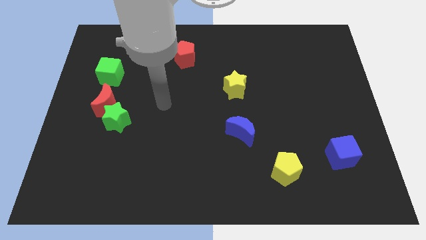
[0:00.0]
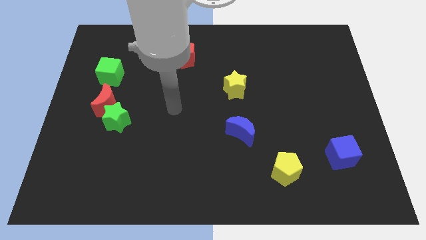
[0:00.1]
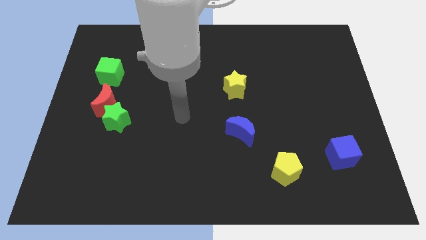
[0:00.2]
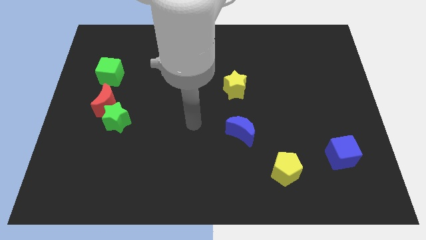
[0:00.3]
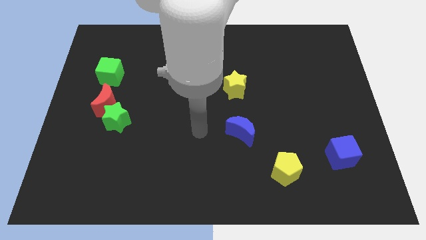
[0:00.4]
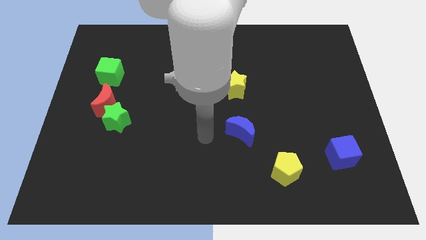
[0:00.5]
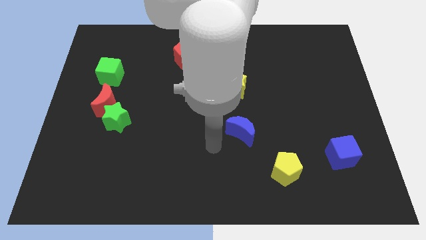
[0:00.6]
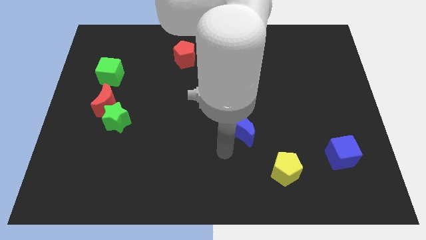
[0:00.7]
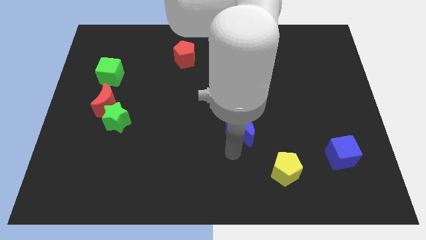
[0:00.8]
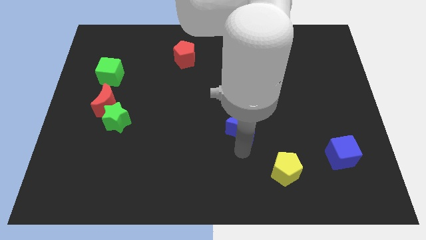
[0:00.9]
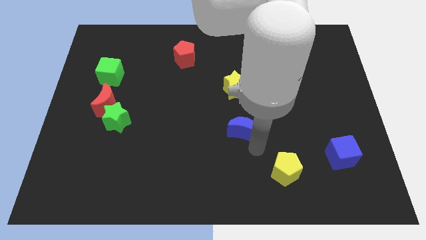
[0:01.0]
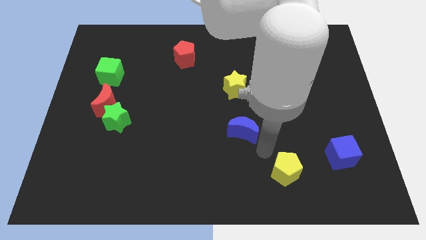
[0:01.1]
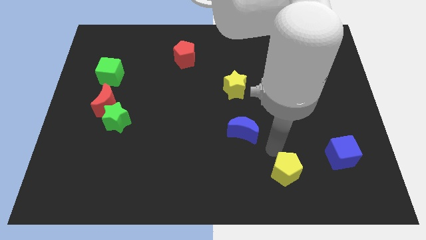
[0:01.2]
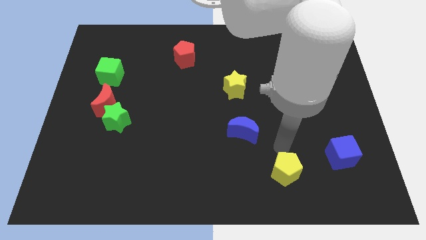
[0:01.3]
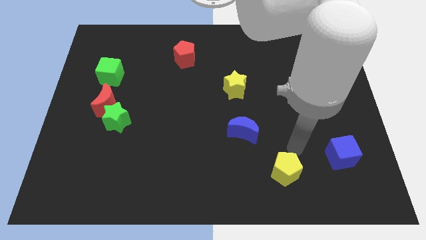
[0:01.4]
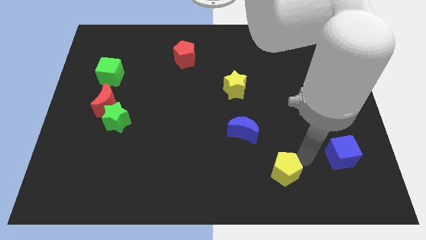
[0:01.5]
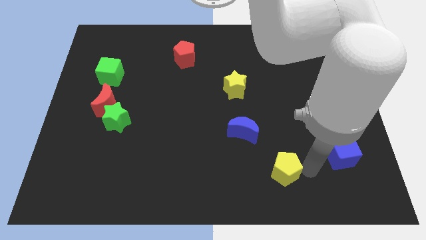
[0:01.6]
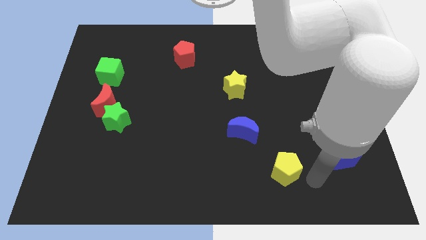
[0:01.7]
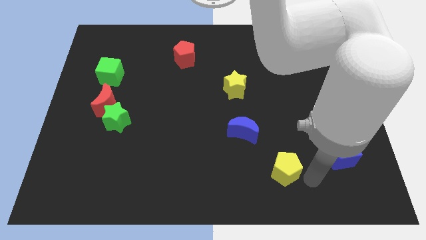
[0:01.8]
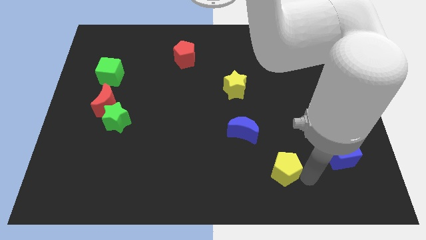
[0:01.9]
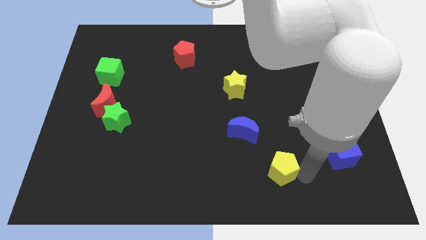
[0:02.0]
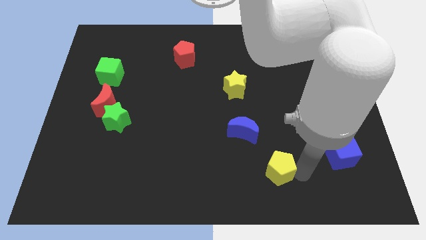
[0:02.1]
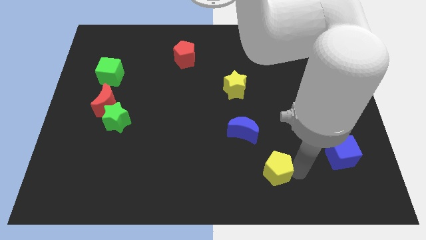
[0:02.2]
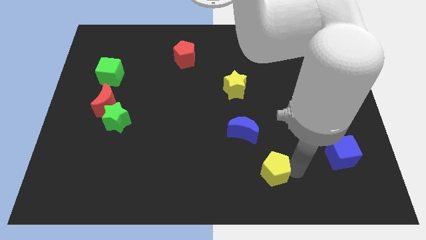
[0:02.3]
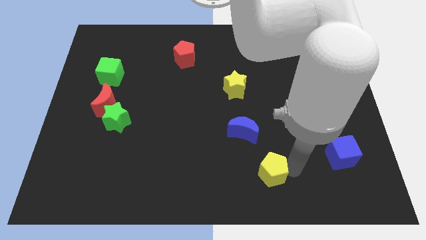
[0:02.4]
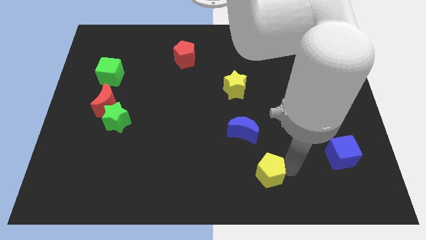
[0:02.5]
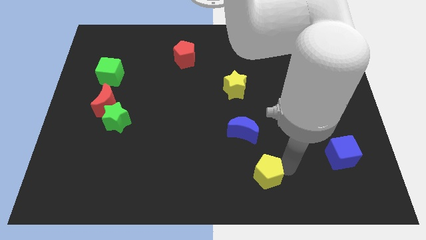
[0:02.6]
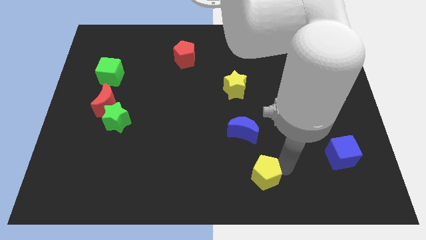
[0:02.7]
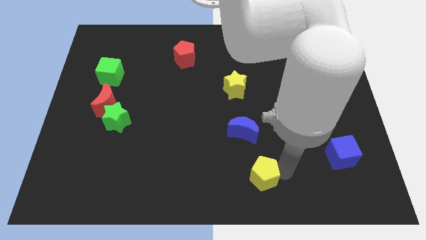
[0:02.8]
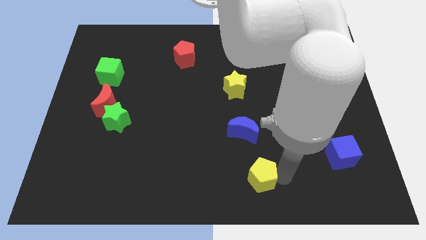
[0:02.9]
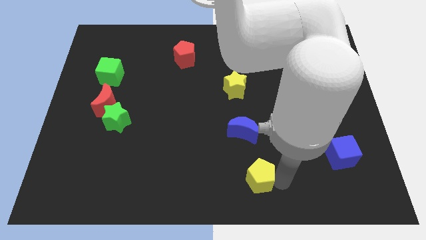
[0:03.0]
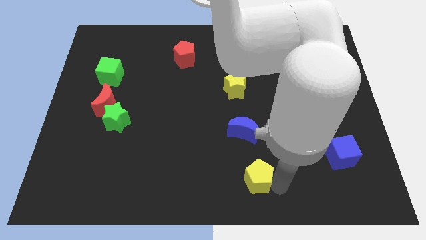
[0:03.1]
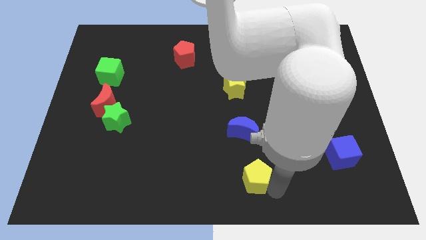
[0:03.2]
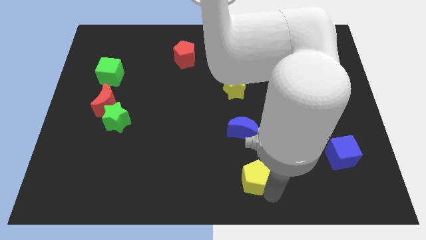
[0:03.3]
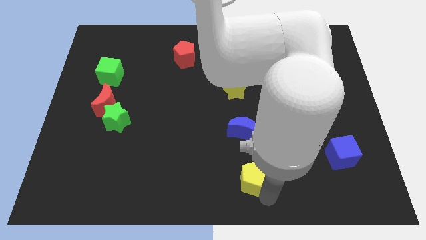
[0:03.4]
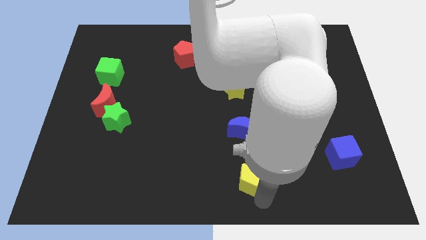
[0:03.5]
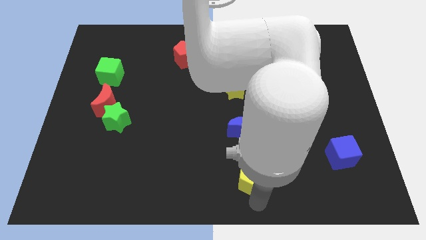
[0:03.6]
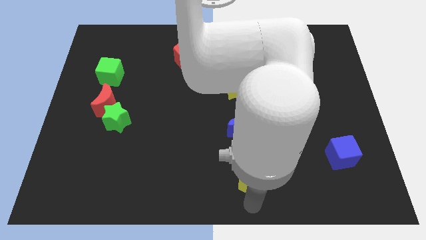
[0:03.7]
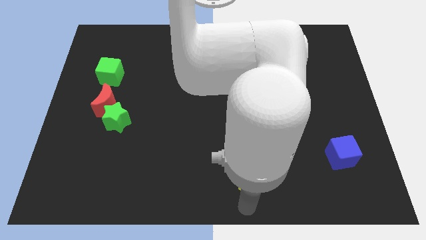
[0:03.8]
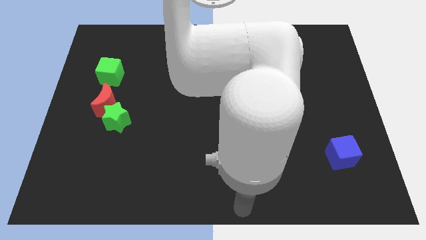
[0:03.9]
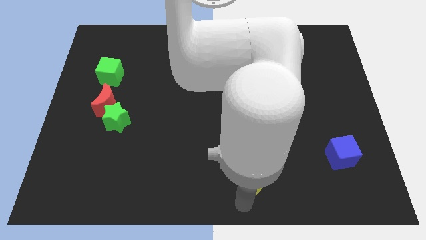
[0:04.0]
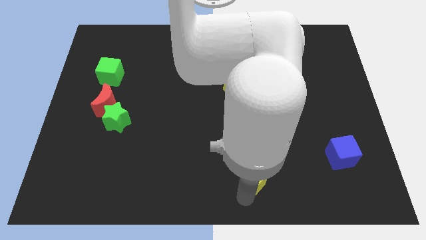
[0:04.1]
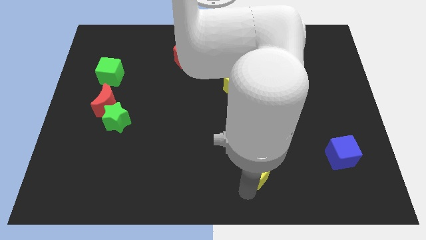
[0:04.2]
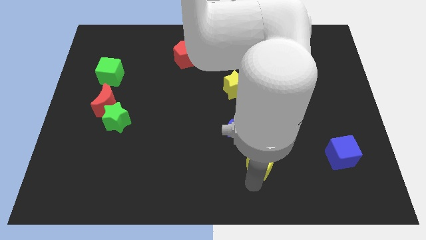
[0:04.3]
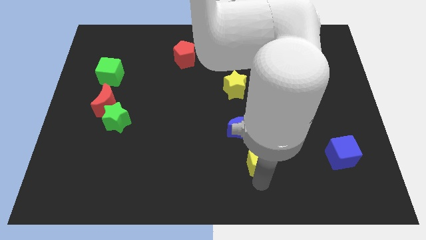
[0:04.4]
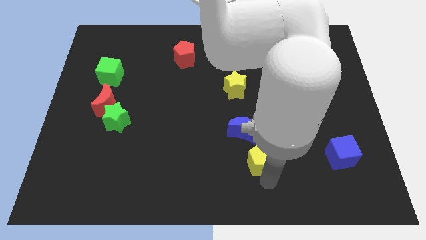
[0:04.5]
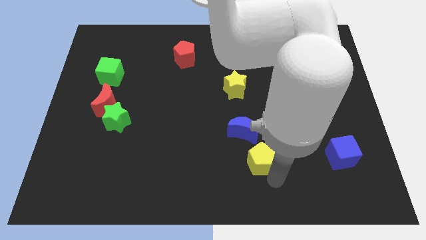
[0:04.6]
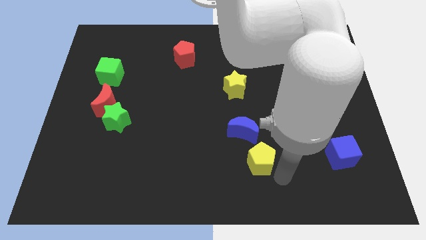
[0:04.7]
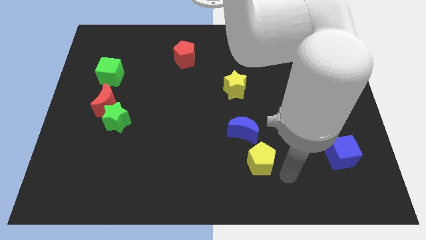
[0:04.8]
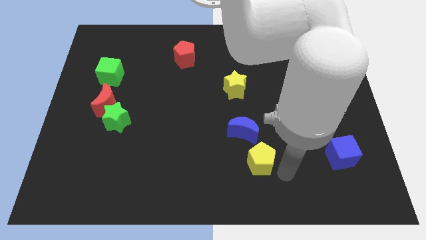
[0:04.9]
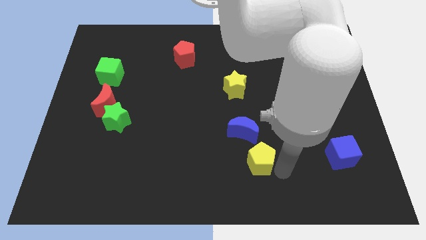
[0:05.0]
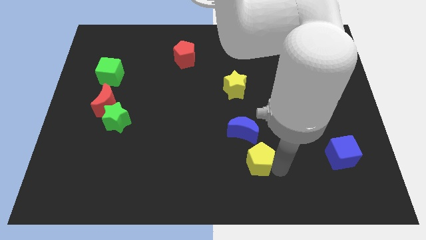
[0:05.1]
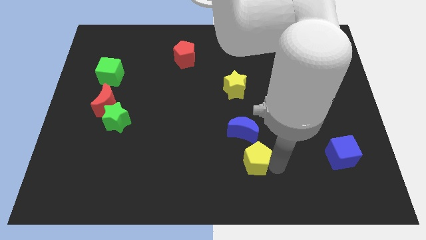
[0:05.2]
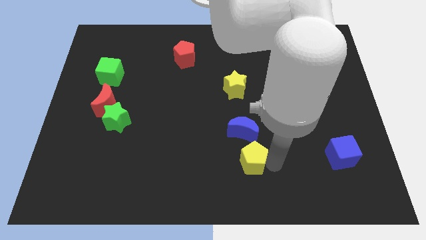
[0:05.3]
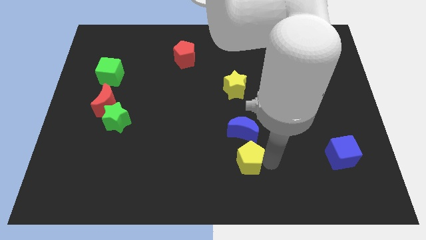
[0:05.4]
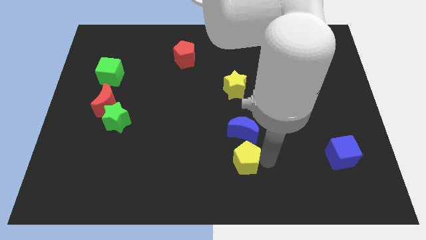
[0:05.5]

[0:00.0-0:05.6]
push the yellow pentagon diagonally up and left a bit

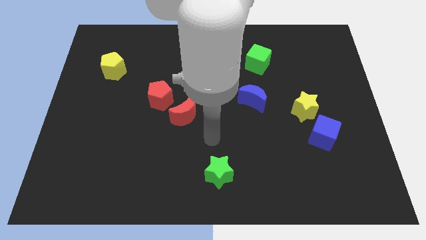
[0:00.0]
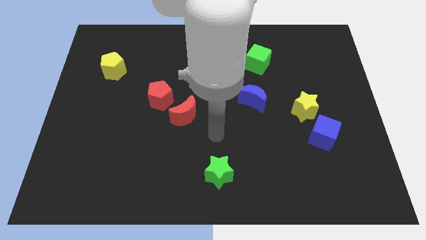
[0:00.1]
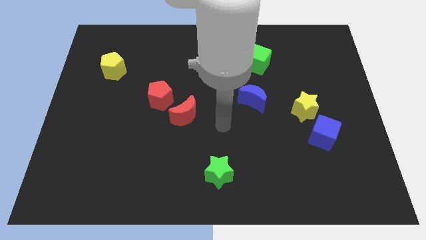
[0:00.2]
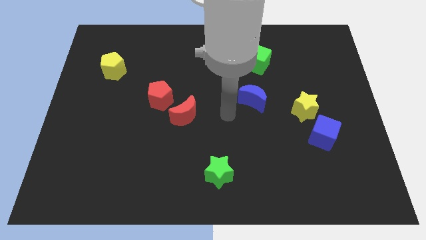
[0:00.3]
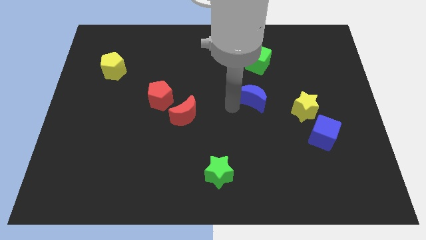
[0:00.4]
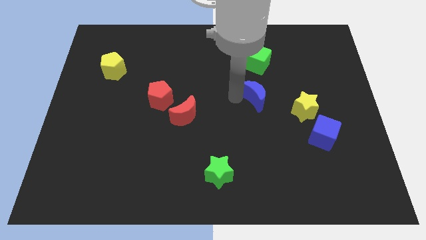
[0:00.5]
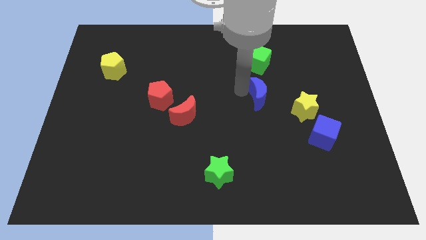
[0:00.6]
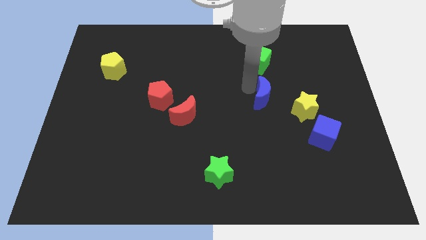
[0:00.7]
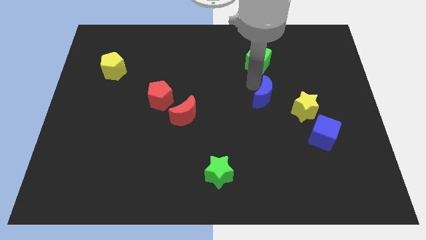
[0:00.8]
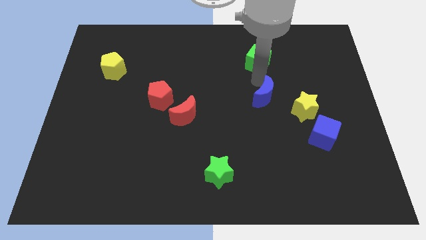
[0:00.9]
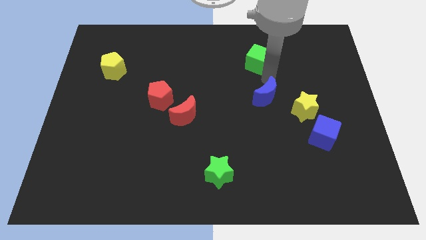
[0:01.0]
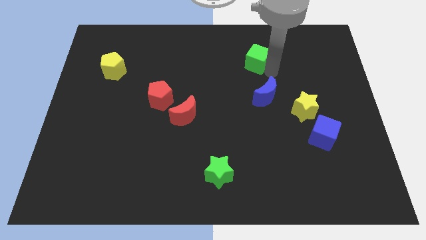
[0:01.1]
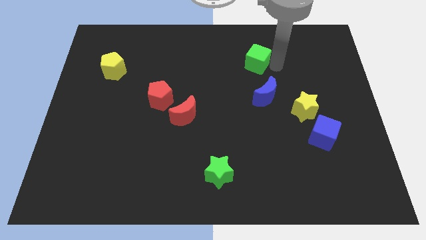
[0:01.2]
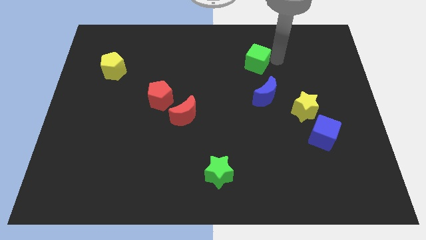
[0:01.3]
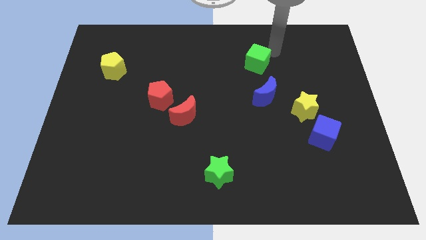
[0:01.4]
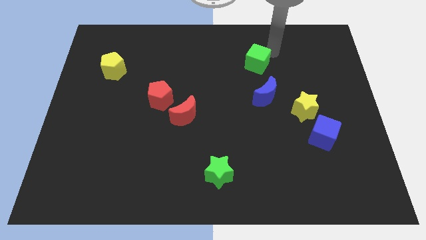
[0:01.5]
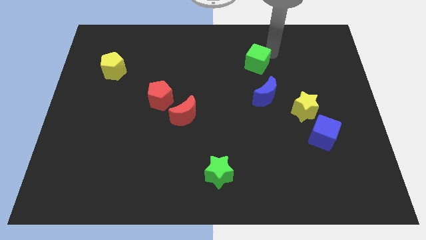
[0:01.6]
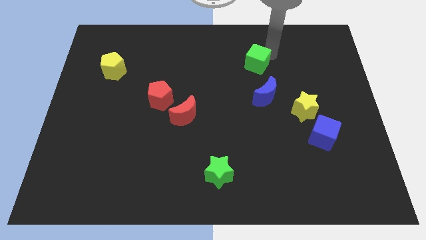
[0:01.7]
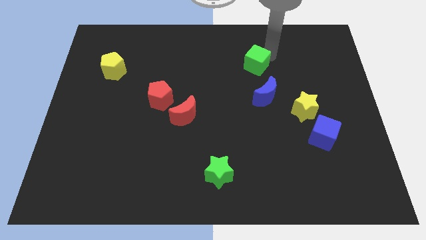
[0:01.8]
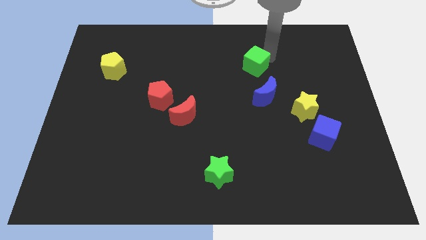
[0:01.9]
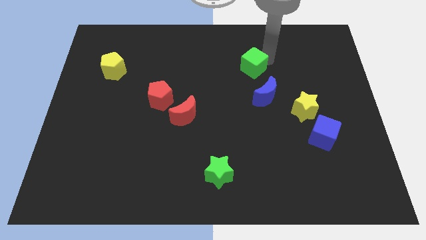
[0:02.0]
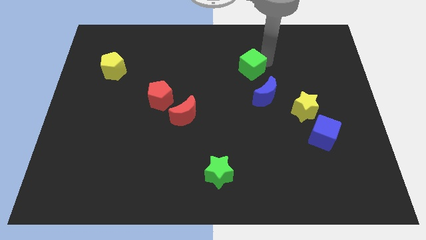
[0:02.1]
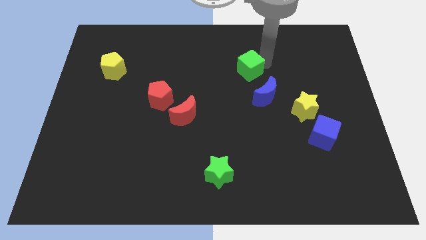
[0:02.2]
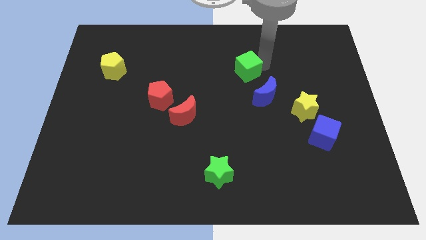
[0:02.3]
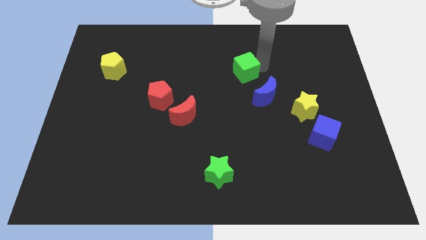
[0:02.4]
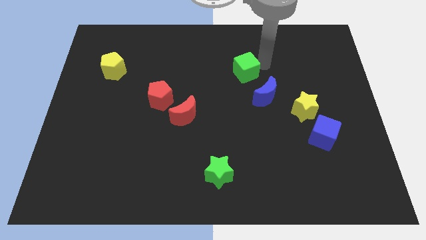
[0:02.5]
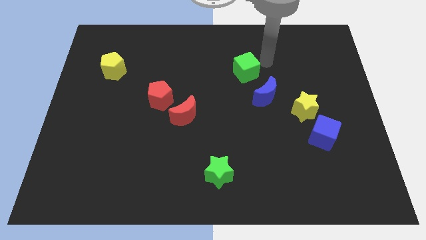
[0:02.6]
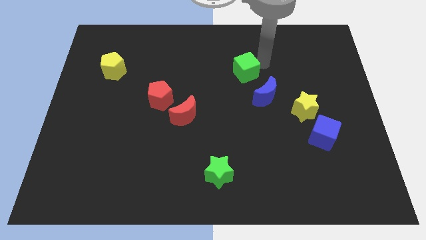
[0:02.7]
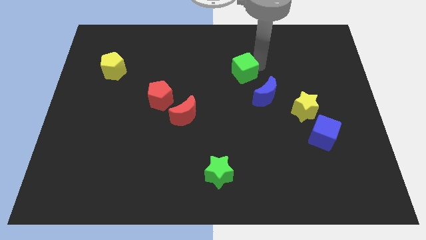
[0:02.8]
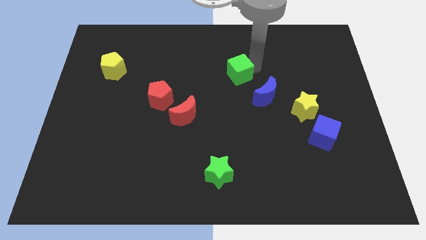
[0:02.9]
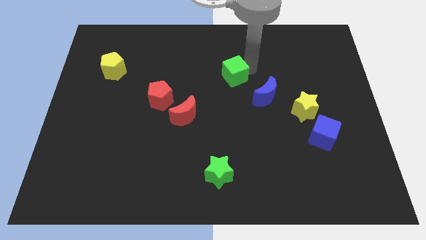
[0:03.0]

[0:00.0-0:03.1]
slightly move the green cube diagonally down and left
